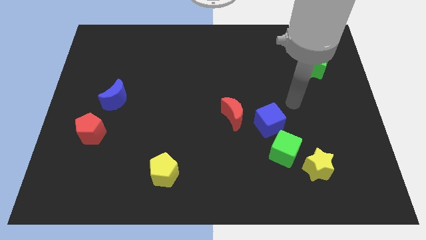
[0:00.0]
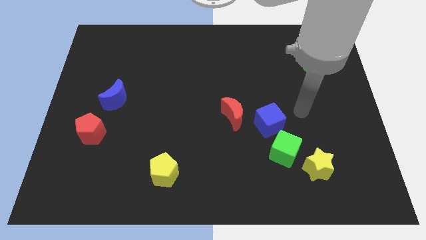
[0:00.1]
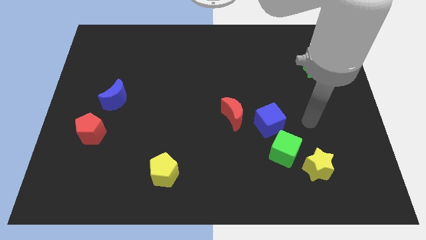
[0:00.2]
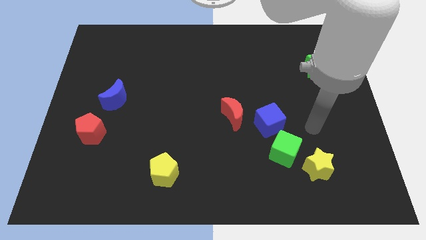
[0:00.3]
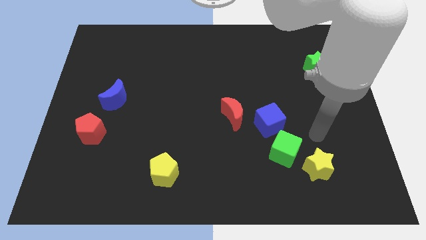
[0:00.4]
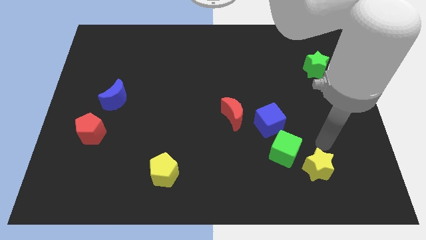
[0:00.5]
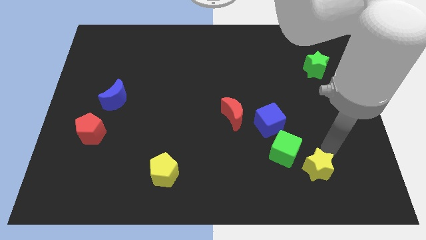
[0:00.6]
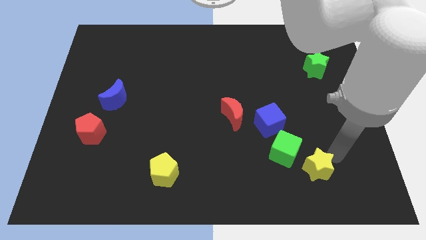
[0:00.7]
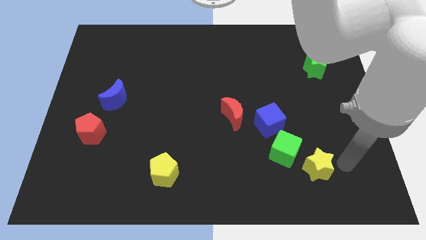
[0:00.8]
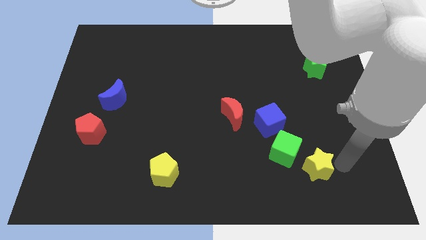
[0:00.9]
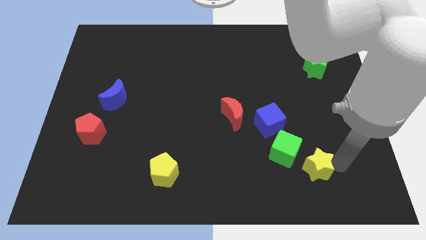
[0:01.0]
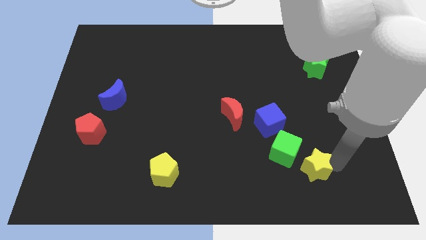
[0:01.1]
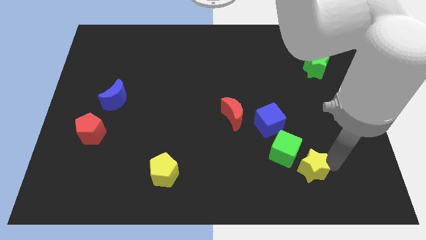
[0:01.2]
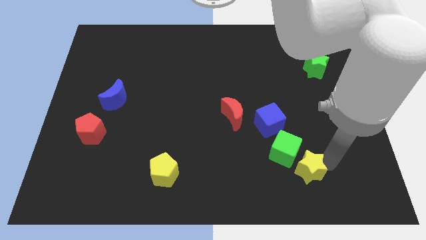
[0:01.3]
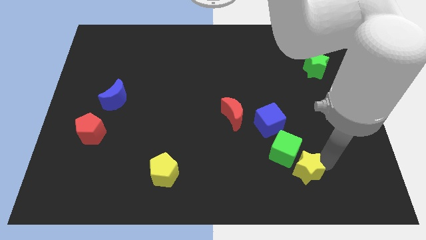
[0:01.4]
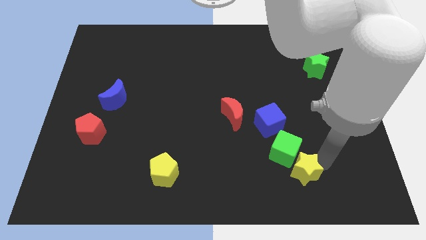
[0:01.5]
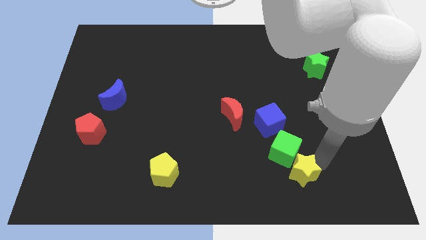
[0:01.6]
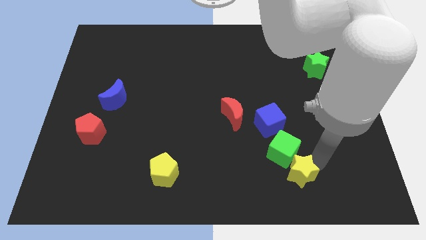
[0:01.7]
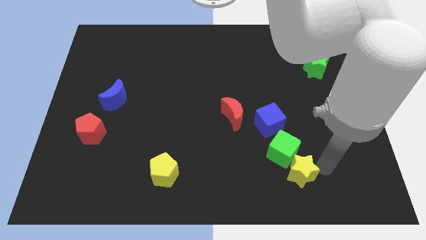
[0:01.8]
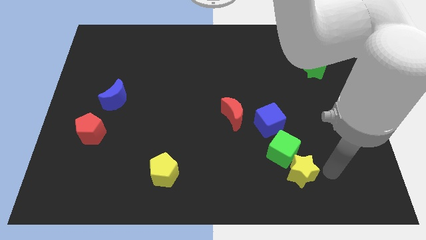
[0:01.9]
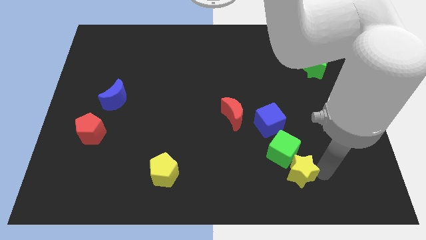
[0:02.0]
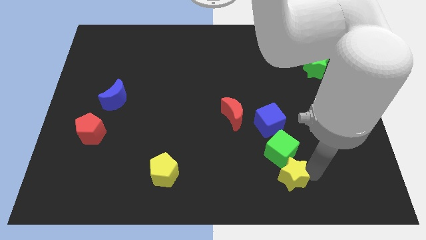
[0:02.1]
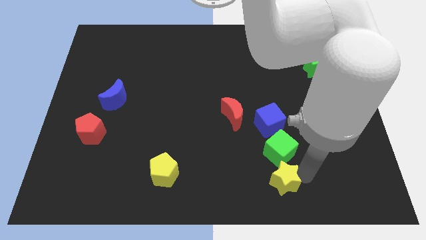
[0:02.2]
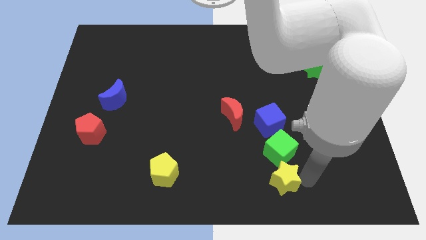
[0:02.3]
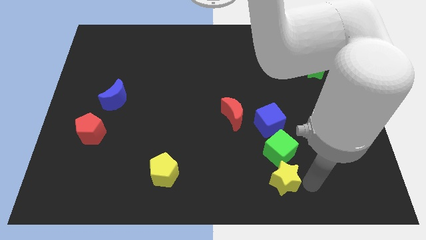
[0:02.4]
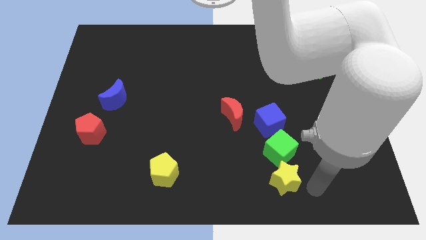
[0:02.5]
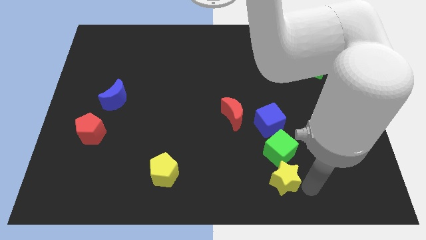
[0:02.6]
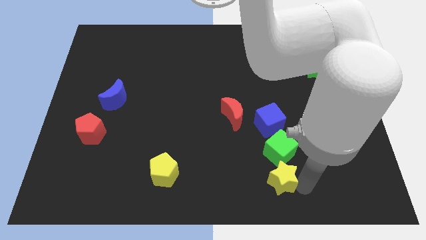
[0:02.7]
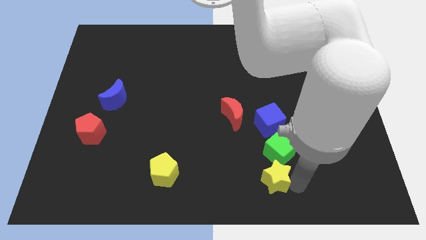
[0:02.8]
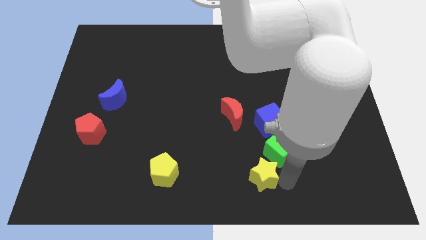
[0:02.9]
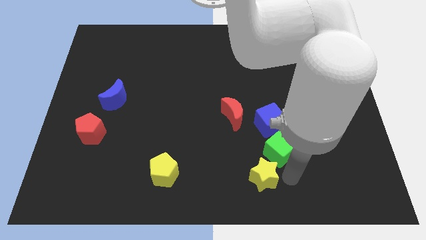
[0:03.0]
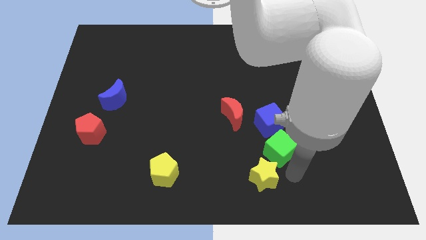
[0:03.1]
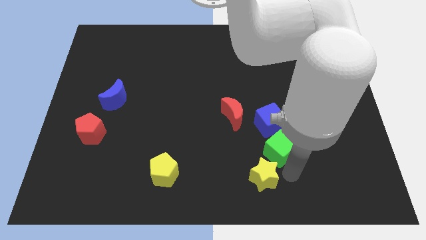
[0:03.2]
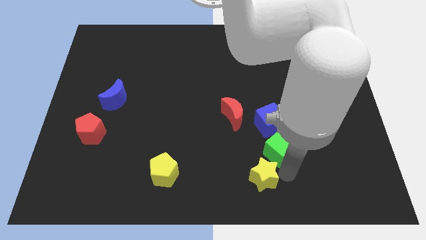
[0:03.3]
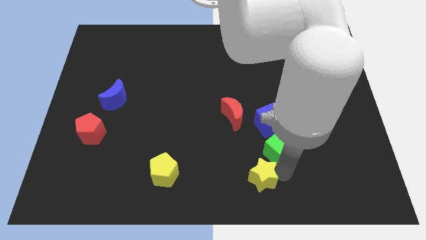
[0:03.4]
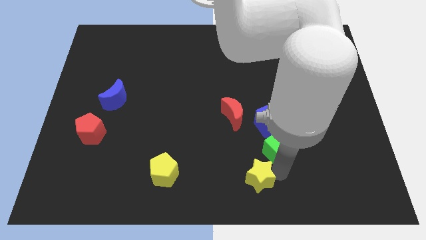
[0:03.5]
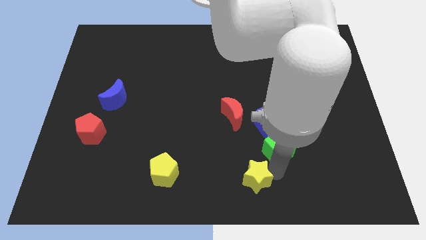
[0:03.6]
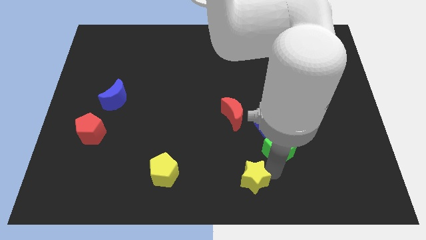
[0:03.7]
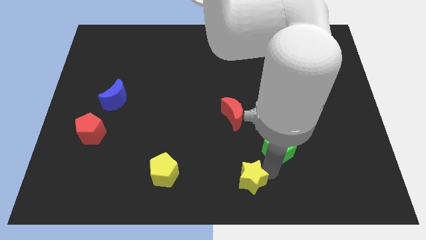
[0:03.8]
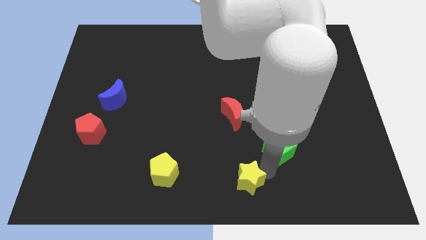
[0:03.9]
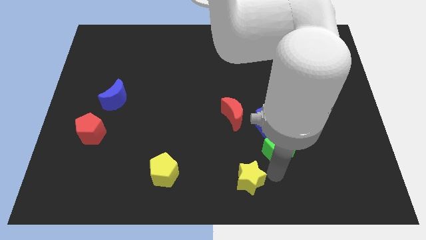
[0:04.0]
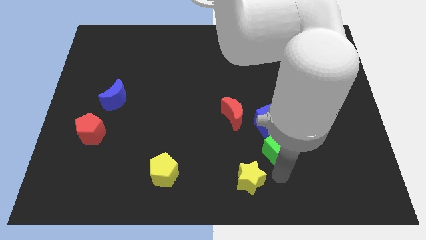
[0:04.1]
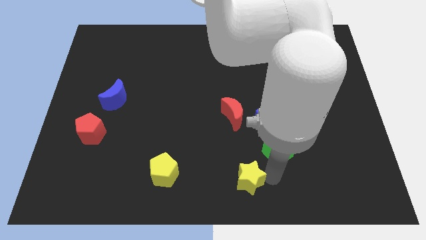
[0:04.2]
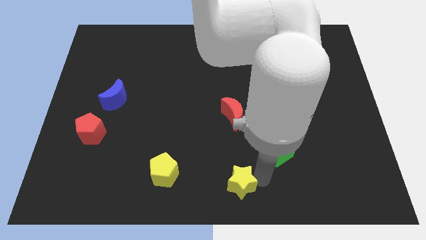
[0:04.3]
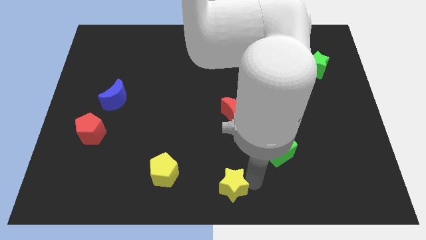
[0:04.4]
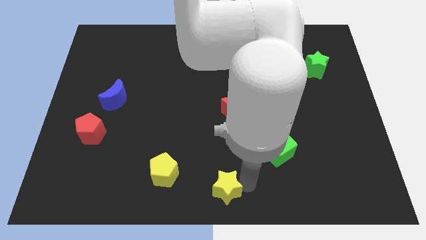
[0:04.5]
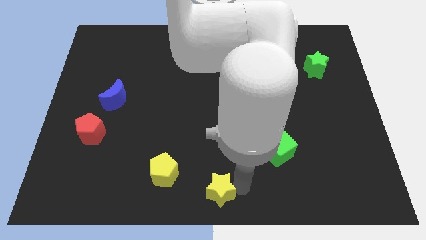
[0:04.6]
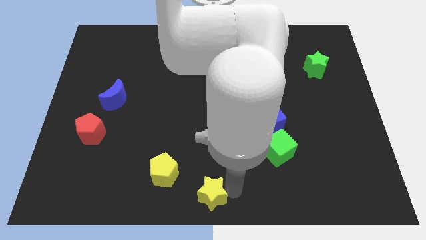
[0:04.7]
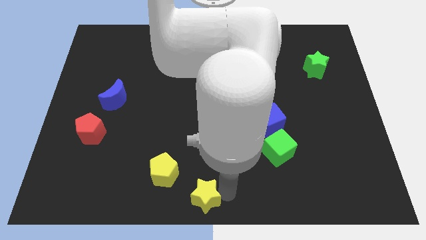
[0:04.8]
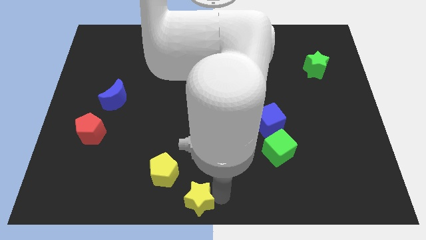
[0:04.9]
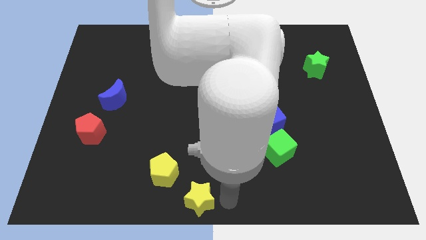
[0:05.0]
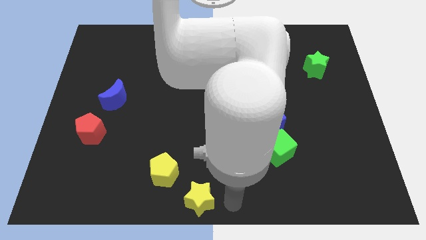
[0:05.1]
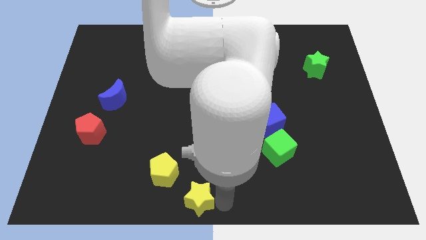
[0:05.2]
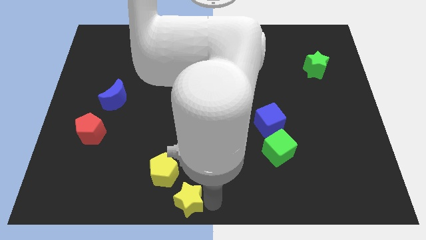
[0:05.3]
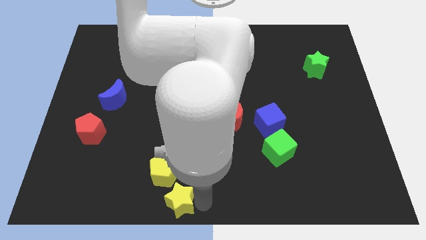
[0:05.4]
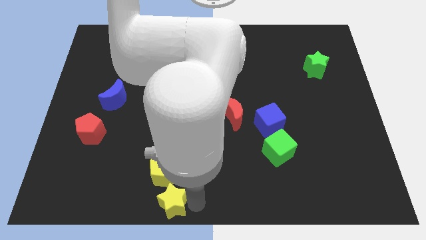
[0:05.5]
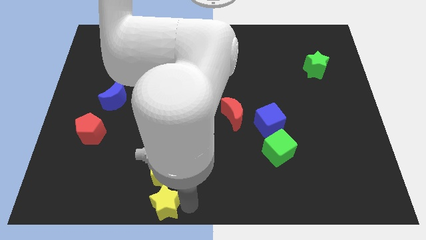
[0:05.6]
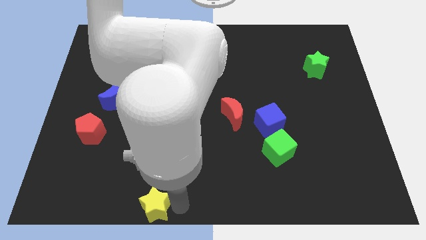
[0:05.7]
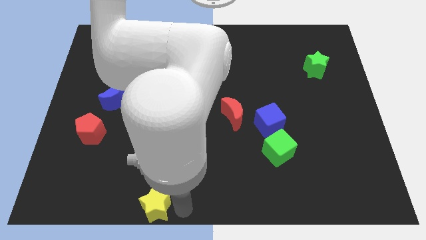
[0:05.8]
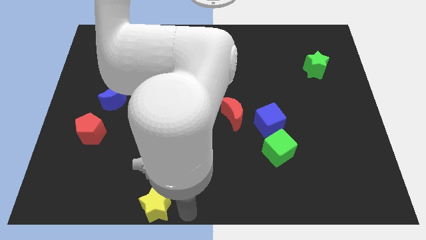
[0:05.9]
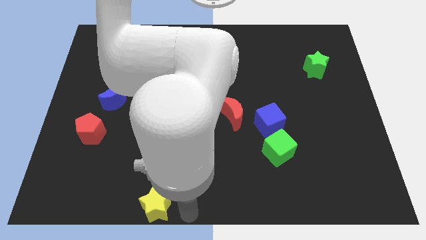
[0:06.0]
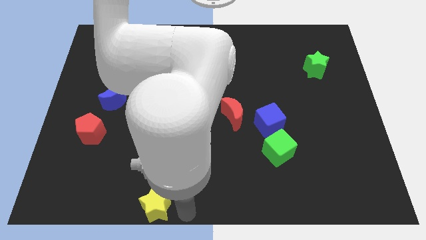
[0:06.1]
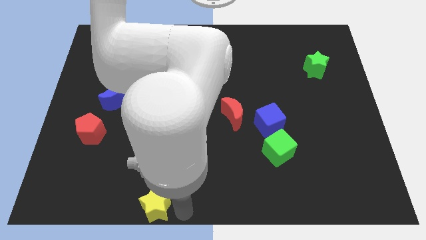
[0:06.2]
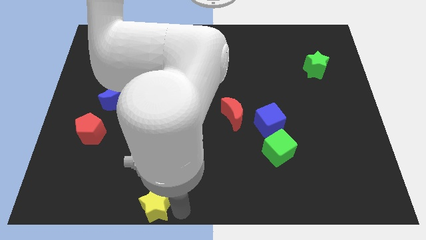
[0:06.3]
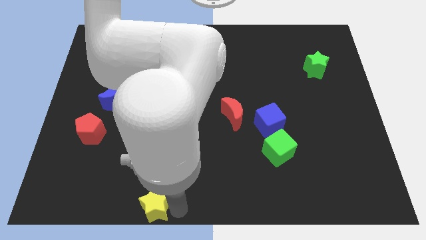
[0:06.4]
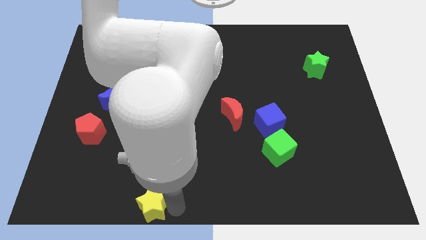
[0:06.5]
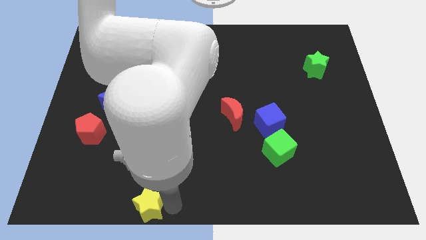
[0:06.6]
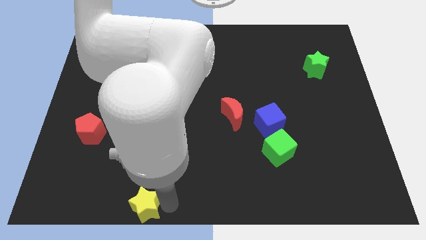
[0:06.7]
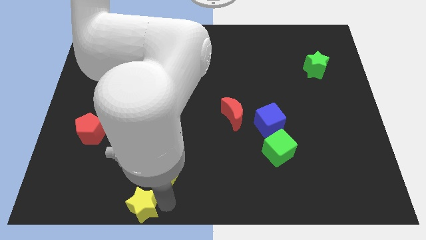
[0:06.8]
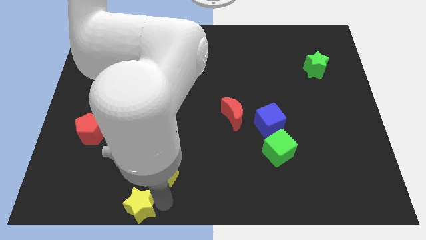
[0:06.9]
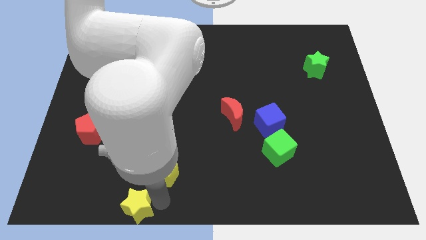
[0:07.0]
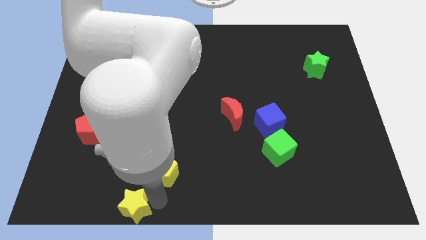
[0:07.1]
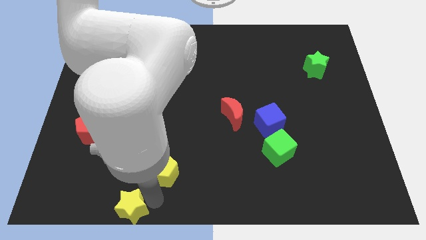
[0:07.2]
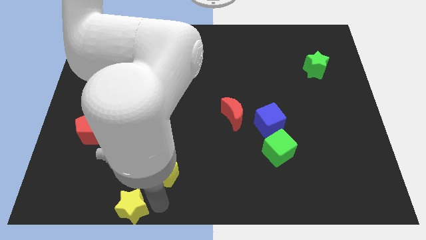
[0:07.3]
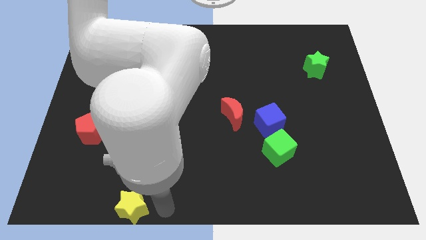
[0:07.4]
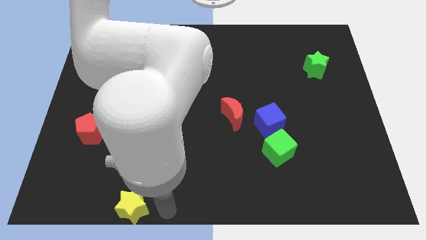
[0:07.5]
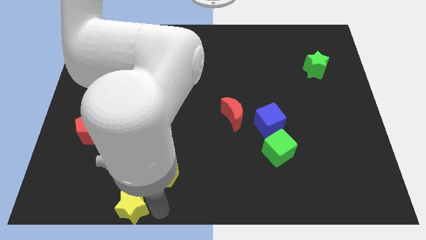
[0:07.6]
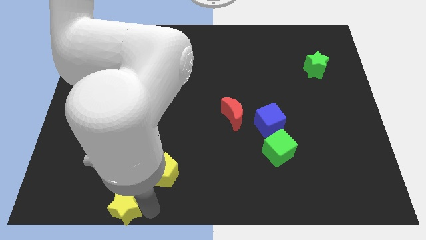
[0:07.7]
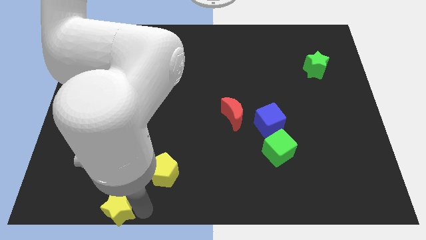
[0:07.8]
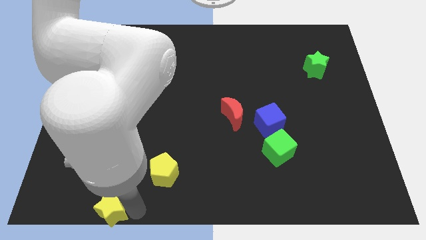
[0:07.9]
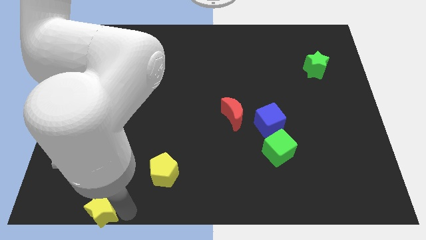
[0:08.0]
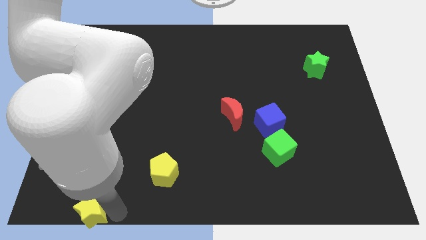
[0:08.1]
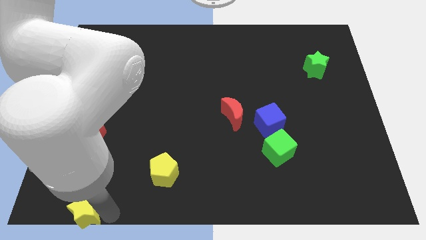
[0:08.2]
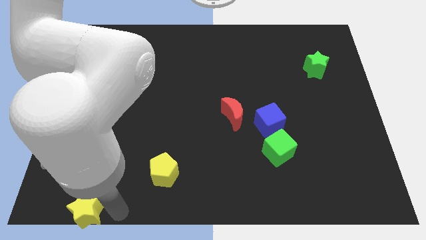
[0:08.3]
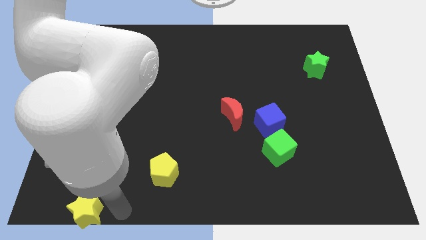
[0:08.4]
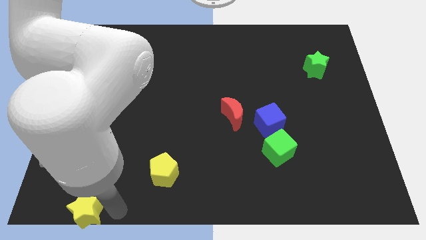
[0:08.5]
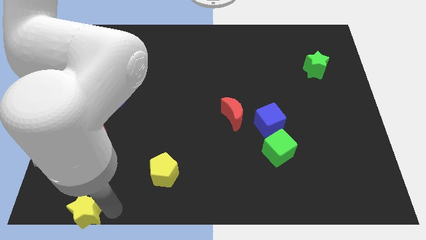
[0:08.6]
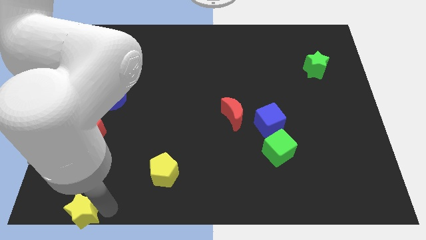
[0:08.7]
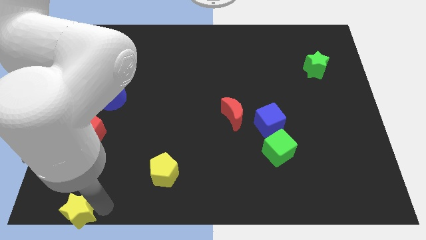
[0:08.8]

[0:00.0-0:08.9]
put the yellow star to the bottom left of the board
